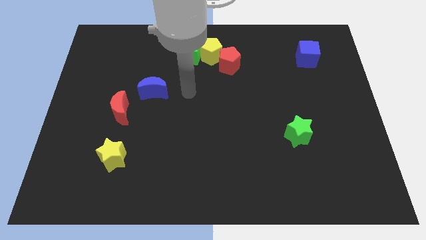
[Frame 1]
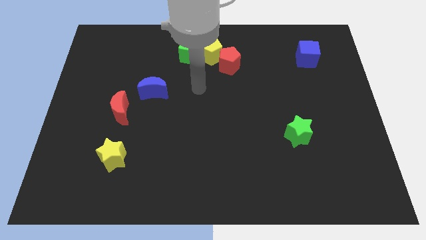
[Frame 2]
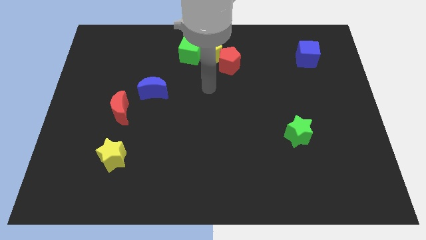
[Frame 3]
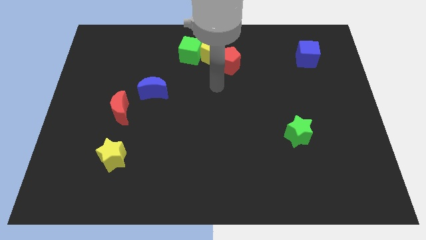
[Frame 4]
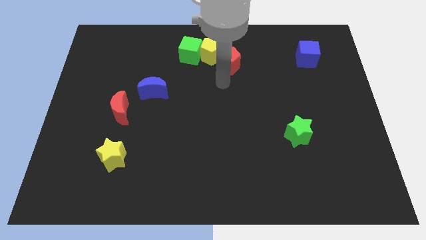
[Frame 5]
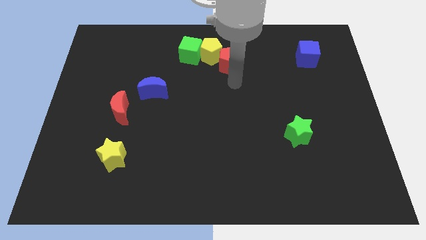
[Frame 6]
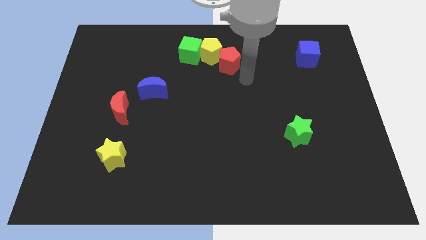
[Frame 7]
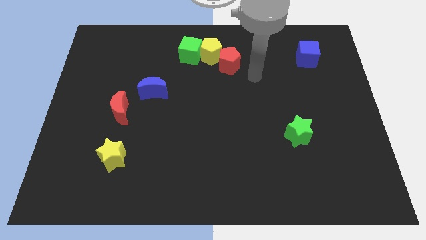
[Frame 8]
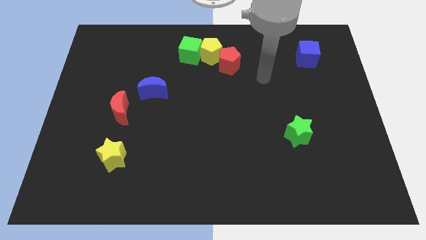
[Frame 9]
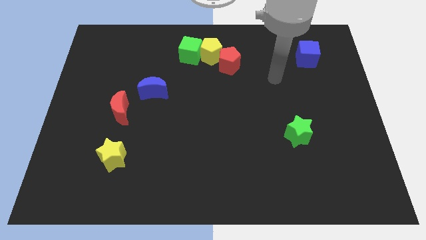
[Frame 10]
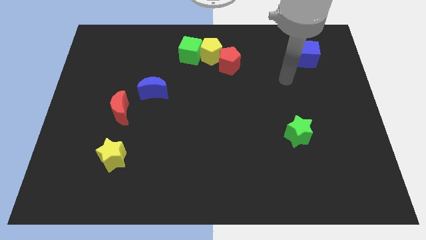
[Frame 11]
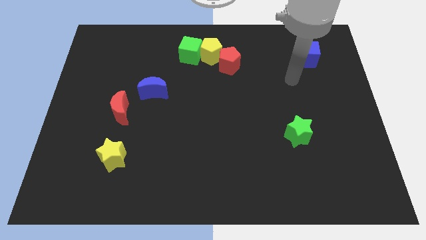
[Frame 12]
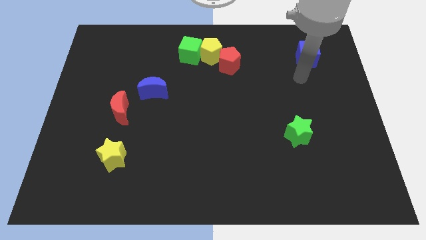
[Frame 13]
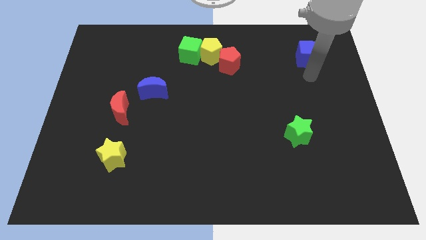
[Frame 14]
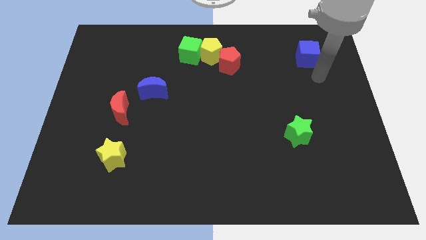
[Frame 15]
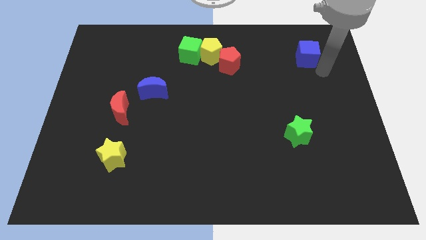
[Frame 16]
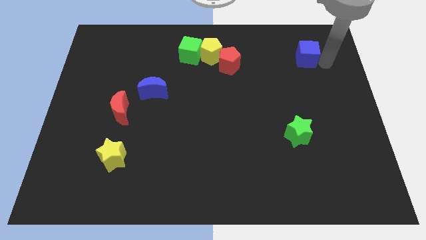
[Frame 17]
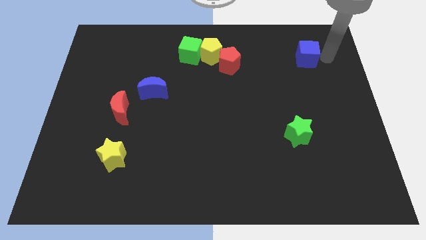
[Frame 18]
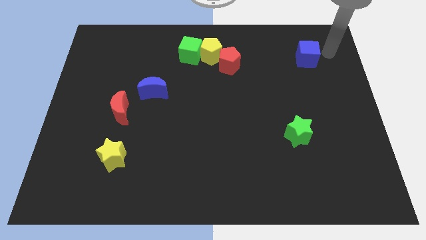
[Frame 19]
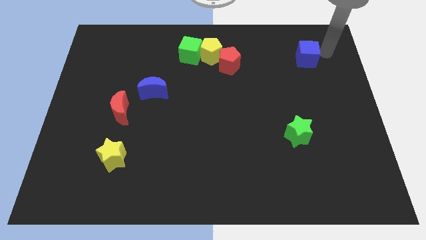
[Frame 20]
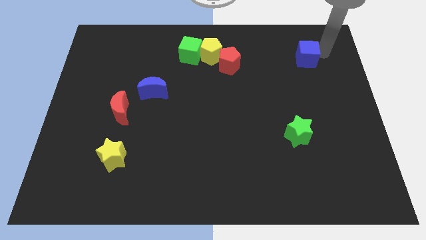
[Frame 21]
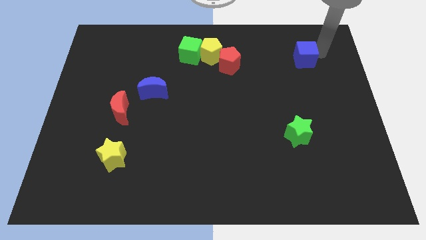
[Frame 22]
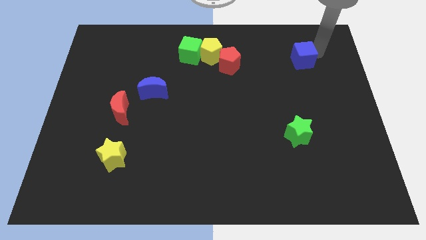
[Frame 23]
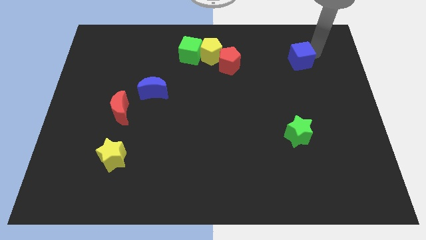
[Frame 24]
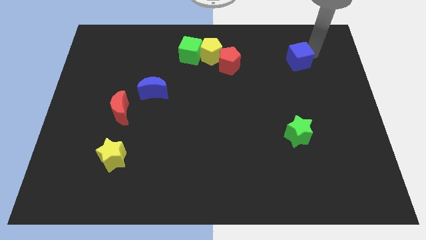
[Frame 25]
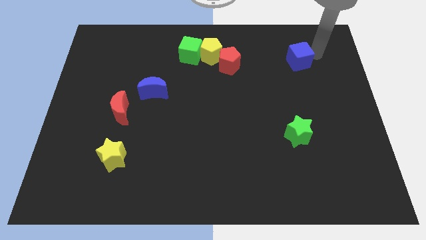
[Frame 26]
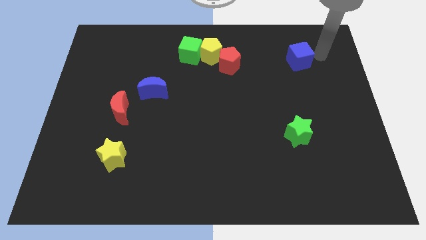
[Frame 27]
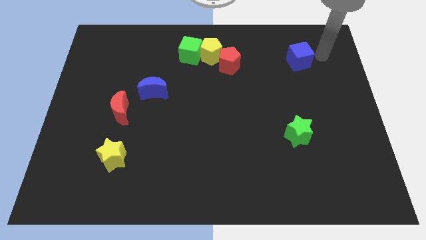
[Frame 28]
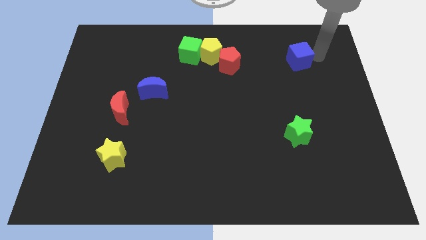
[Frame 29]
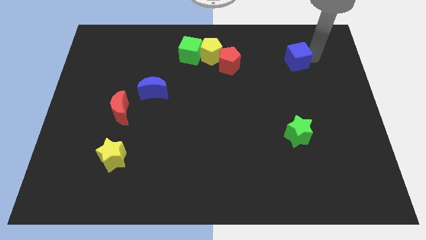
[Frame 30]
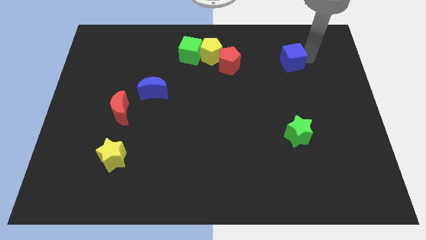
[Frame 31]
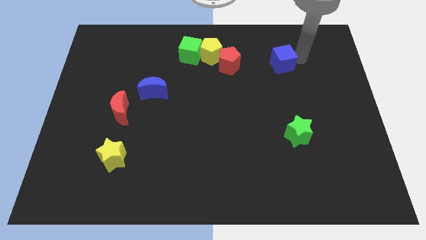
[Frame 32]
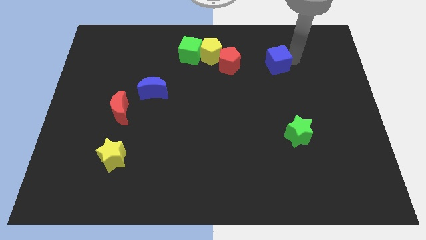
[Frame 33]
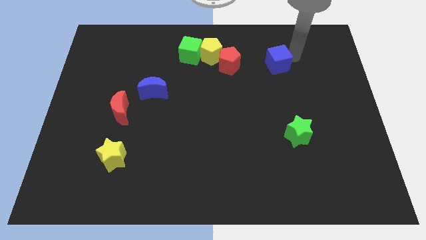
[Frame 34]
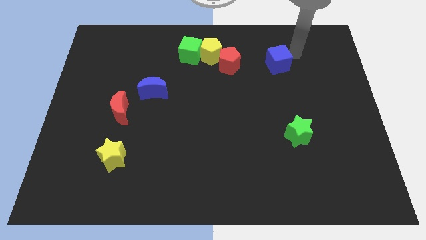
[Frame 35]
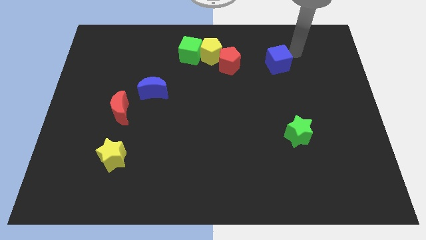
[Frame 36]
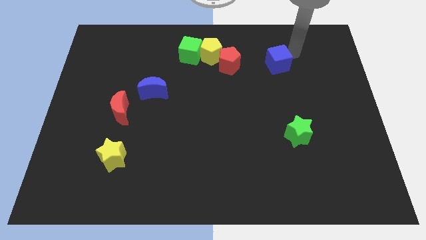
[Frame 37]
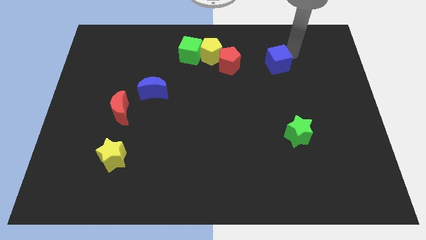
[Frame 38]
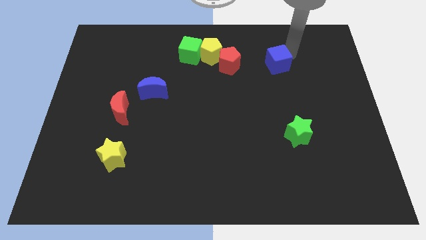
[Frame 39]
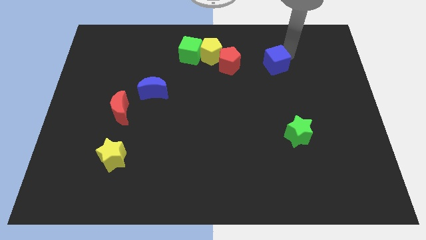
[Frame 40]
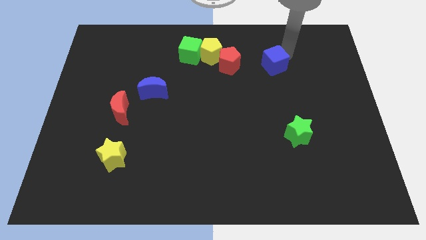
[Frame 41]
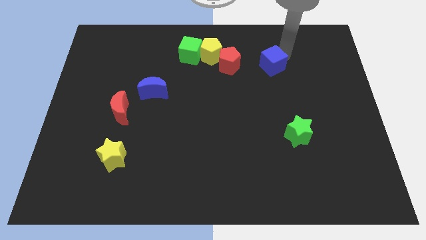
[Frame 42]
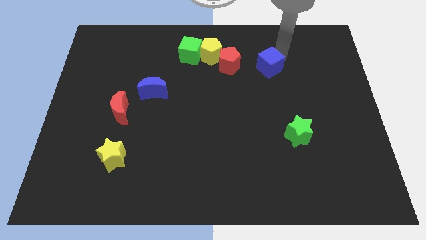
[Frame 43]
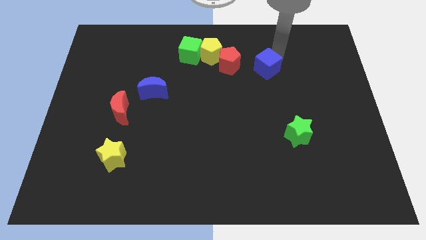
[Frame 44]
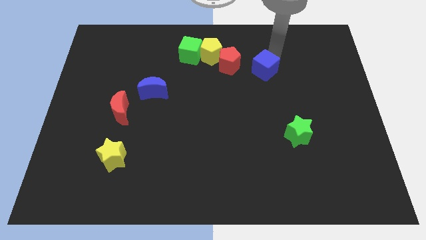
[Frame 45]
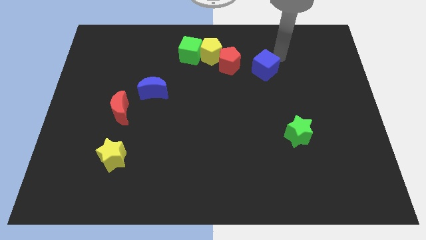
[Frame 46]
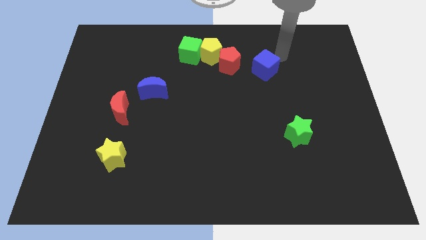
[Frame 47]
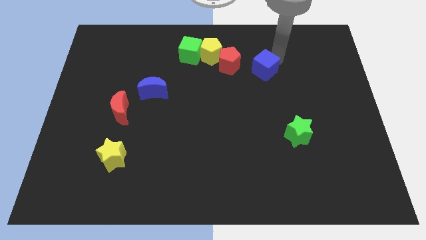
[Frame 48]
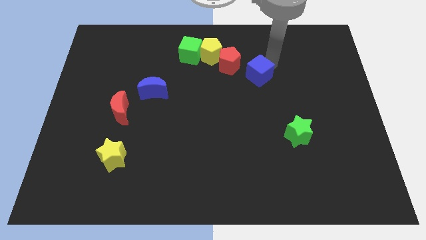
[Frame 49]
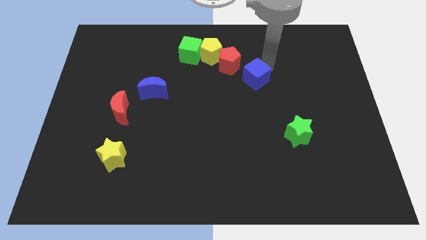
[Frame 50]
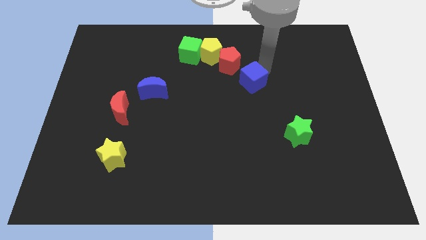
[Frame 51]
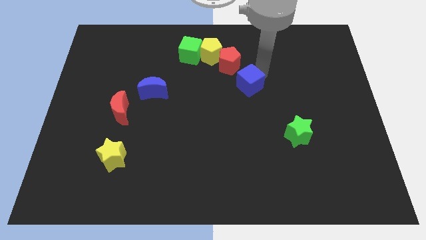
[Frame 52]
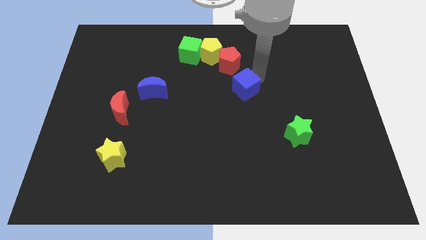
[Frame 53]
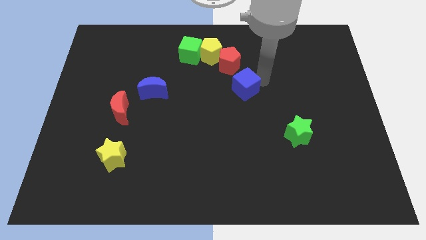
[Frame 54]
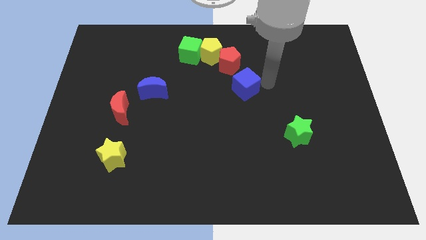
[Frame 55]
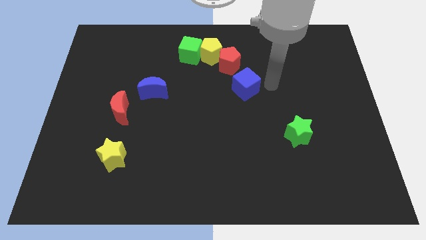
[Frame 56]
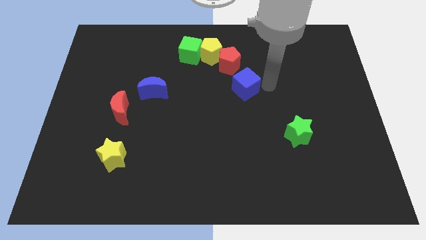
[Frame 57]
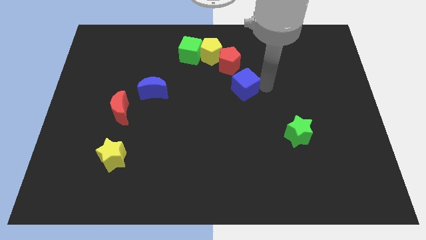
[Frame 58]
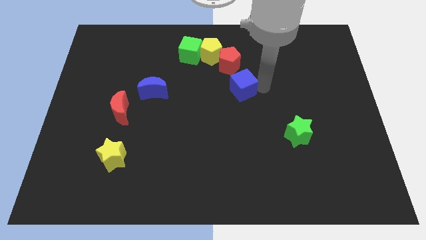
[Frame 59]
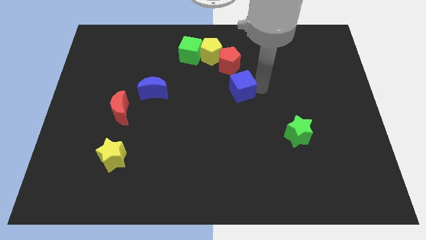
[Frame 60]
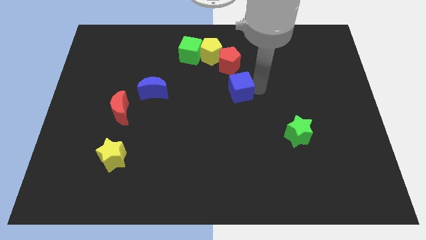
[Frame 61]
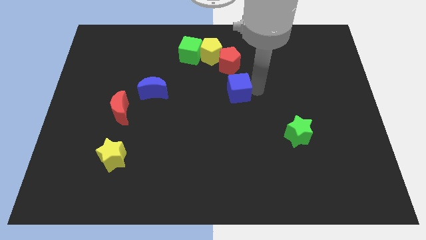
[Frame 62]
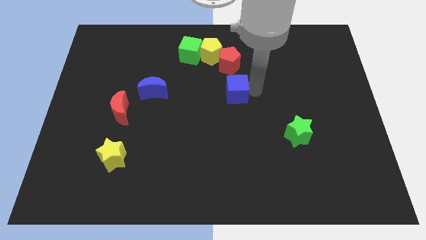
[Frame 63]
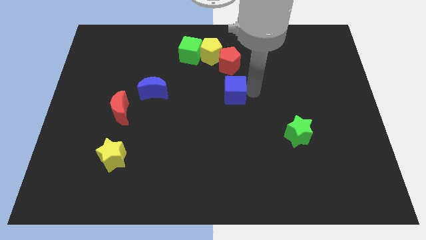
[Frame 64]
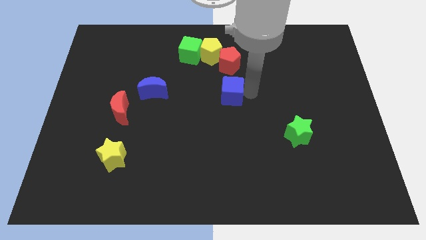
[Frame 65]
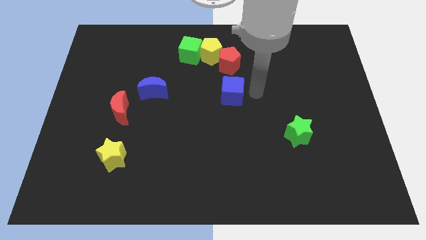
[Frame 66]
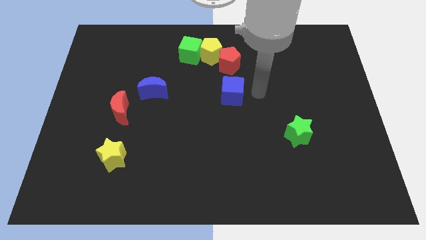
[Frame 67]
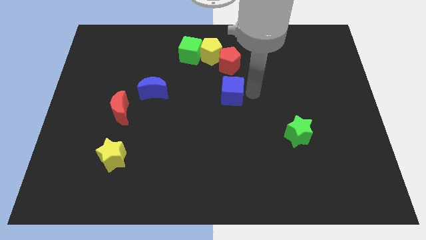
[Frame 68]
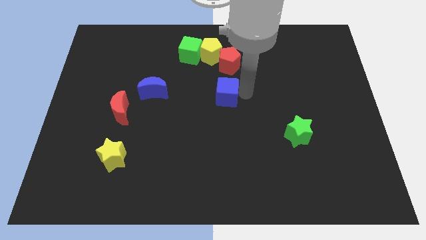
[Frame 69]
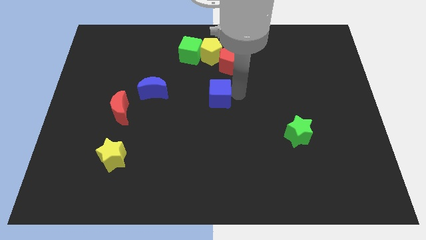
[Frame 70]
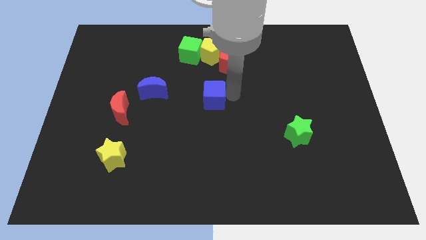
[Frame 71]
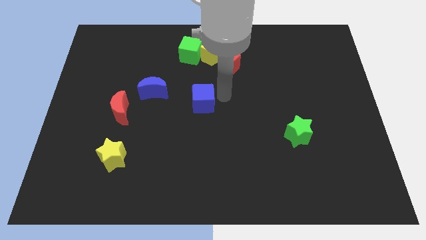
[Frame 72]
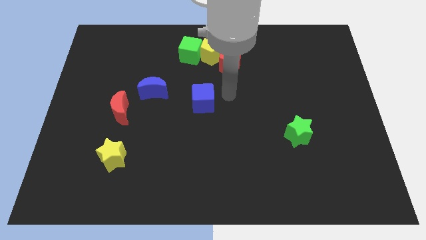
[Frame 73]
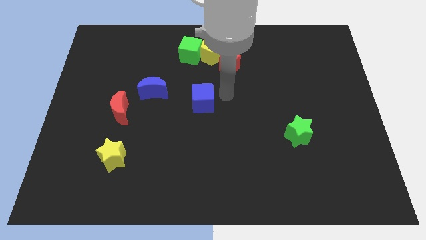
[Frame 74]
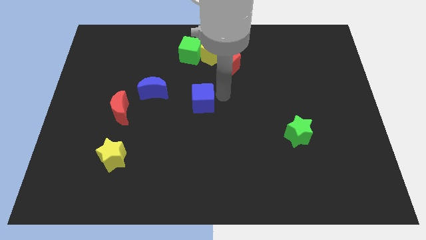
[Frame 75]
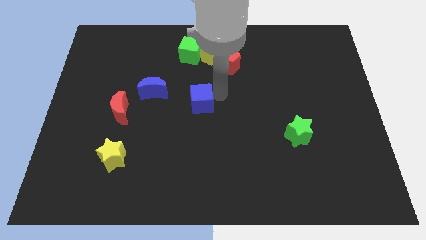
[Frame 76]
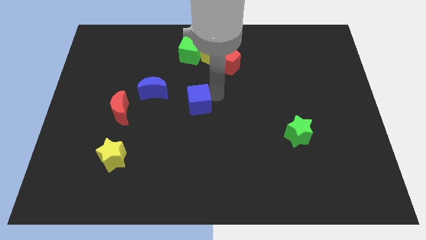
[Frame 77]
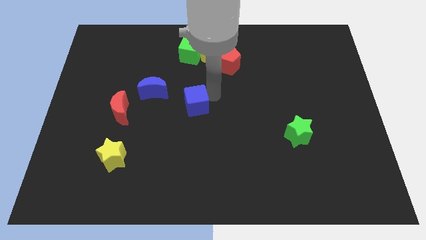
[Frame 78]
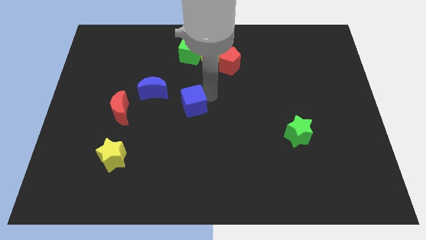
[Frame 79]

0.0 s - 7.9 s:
push the blue cube to the bottom right of the blue moon
